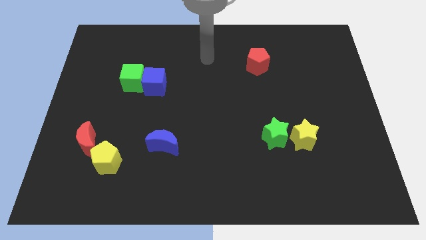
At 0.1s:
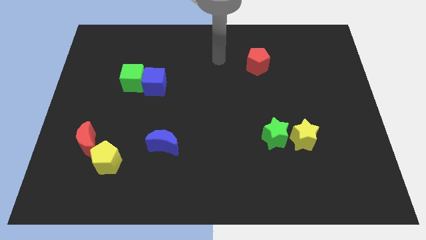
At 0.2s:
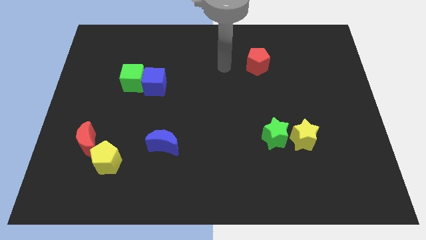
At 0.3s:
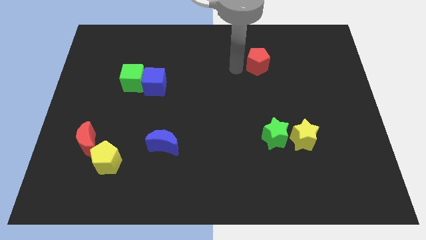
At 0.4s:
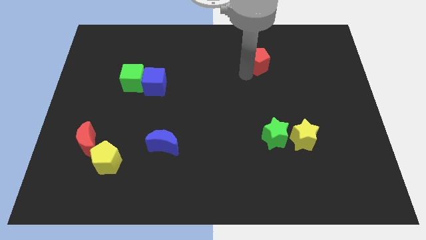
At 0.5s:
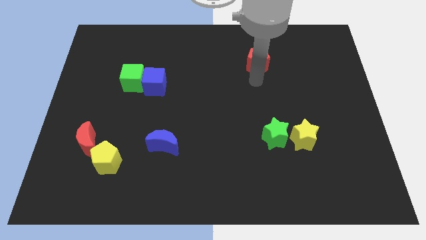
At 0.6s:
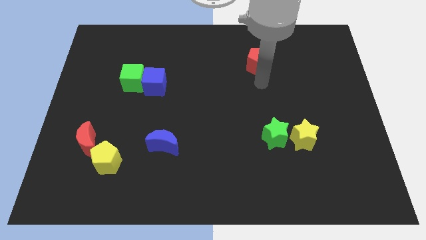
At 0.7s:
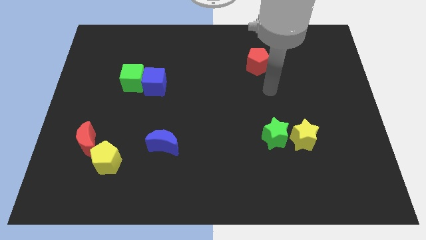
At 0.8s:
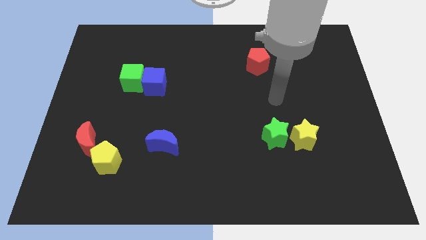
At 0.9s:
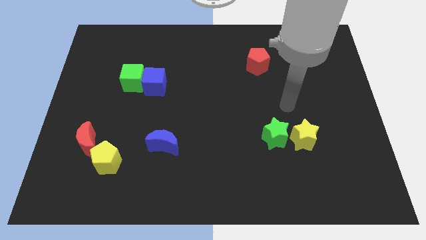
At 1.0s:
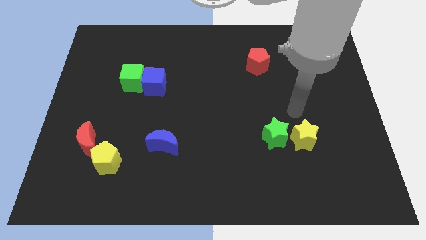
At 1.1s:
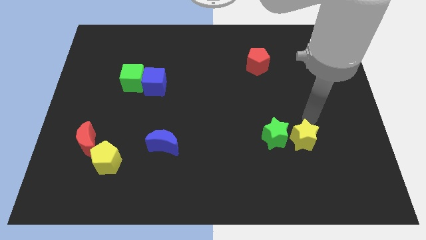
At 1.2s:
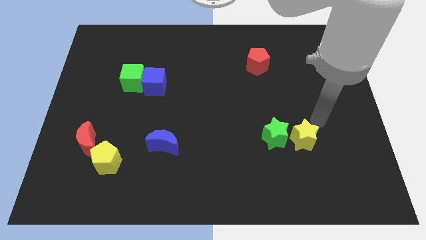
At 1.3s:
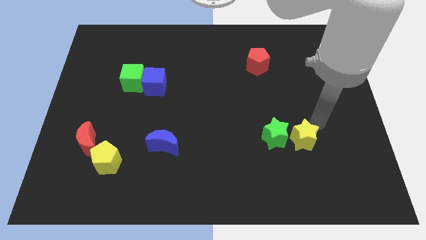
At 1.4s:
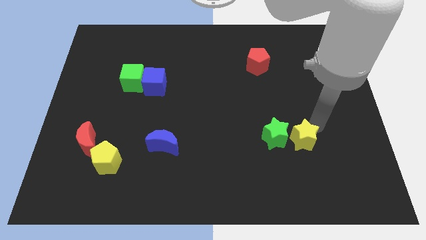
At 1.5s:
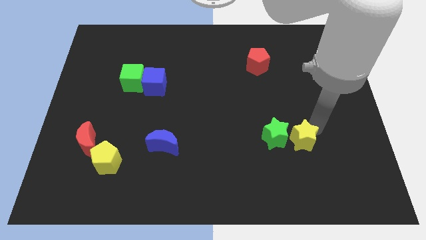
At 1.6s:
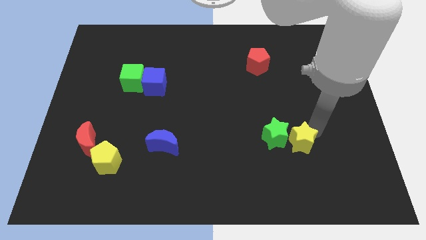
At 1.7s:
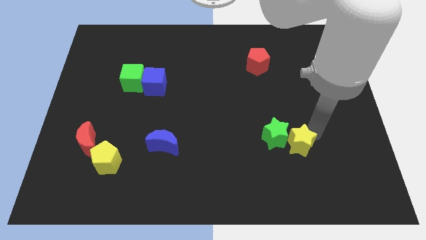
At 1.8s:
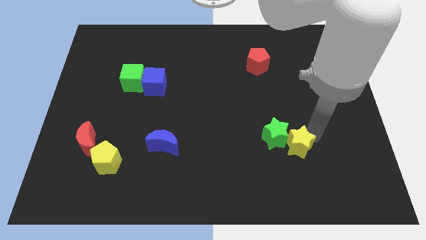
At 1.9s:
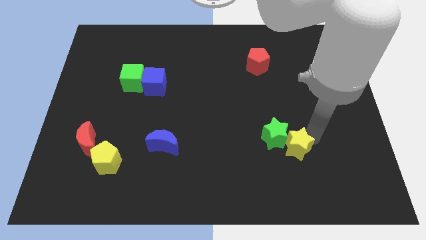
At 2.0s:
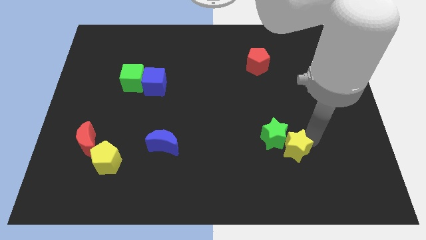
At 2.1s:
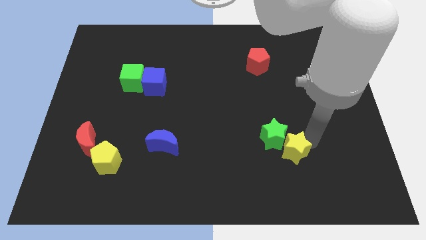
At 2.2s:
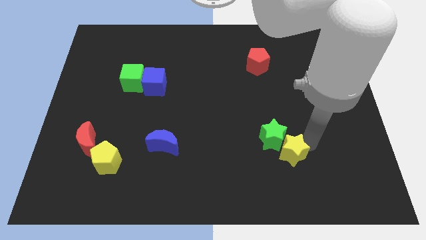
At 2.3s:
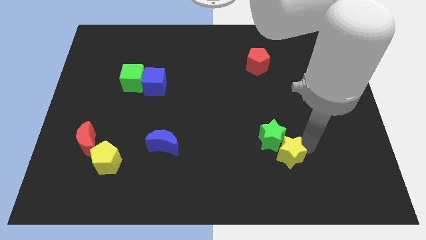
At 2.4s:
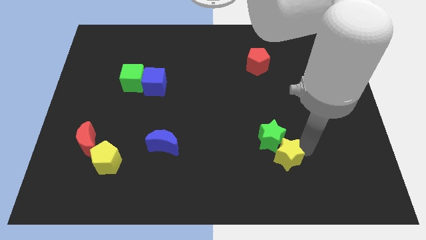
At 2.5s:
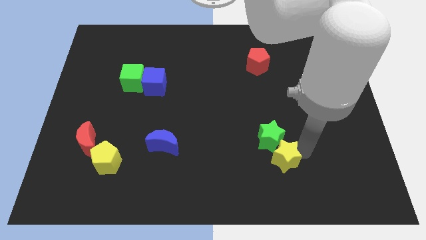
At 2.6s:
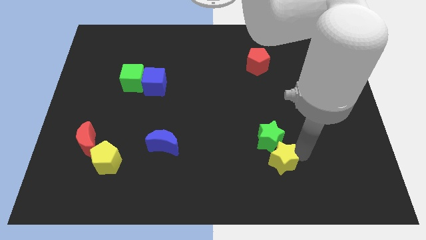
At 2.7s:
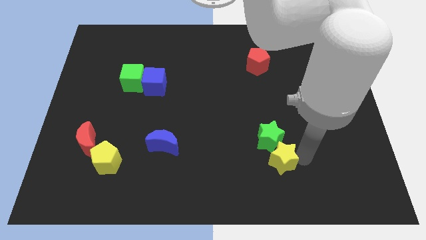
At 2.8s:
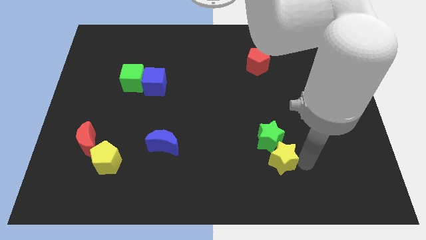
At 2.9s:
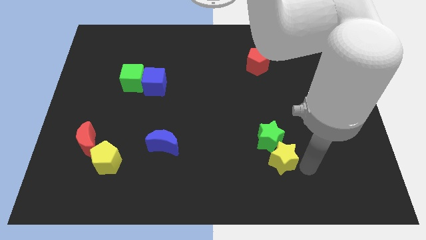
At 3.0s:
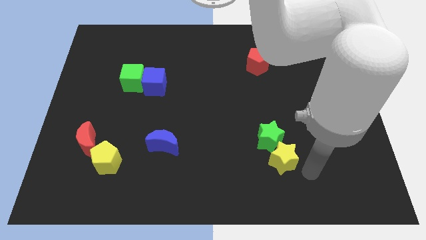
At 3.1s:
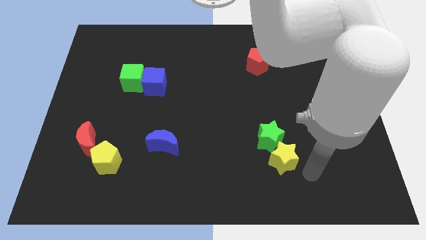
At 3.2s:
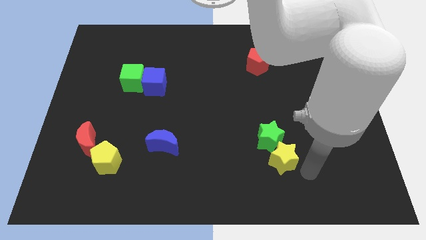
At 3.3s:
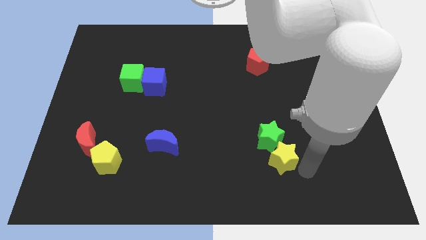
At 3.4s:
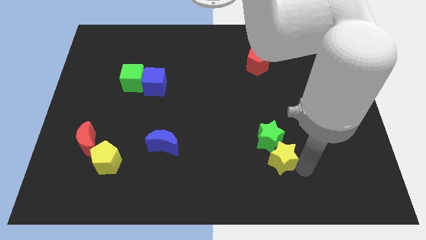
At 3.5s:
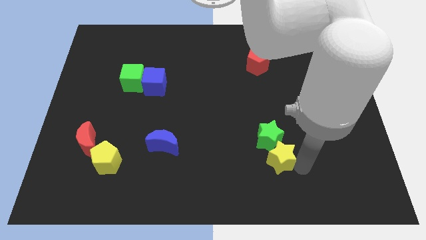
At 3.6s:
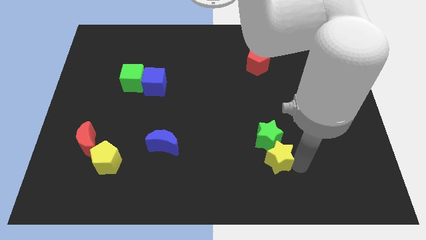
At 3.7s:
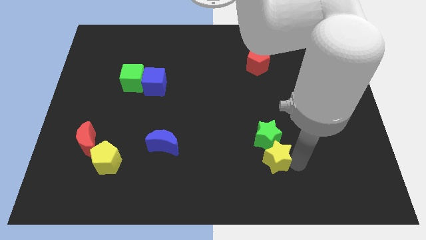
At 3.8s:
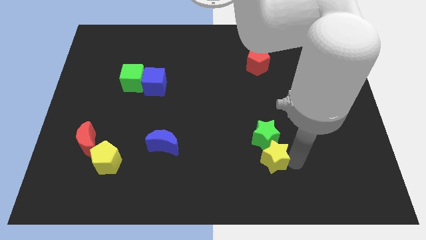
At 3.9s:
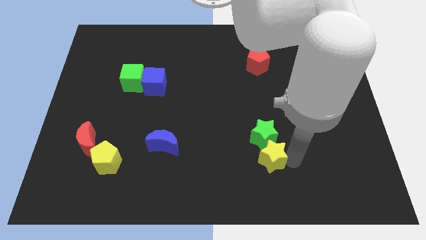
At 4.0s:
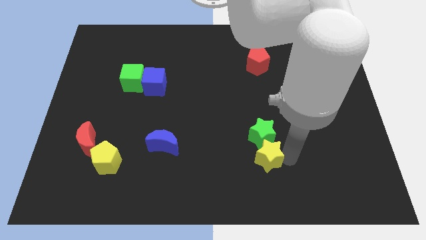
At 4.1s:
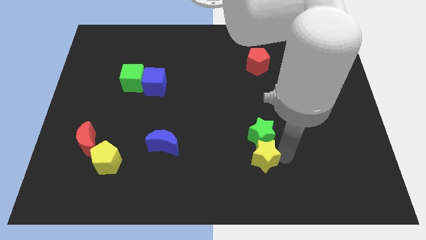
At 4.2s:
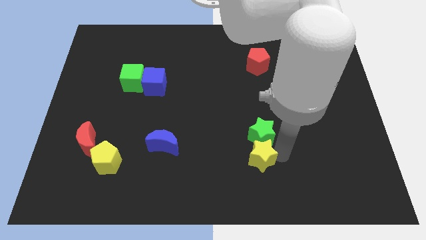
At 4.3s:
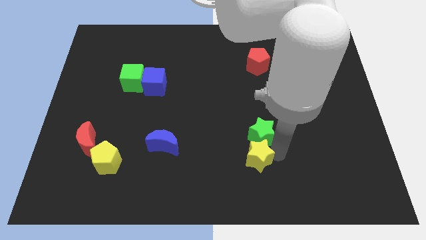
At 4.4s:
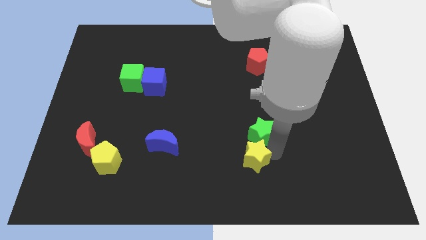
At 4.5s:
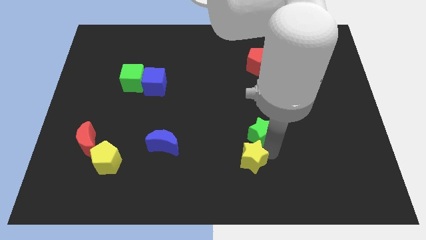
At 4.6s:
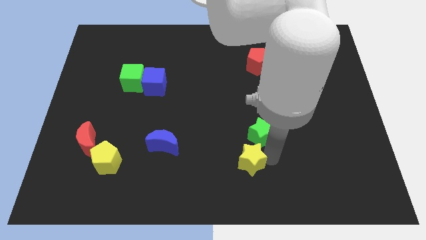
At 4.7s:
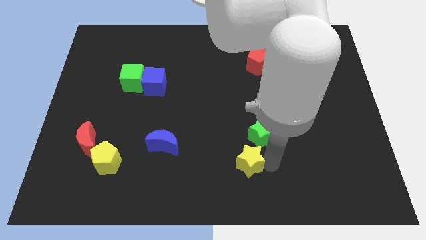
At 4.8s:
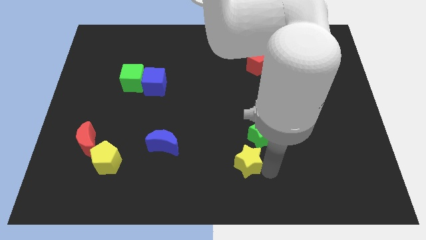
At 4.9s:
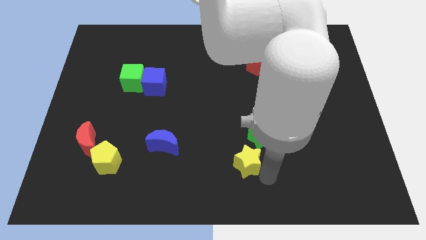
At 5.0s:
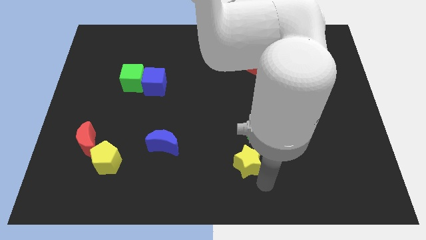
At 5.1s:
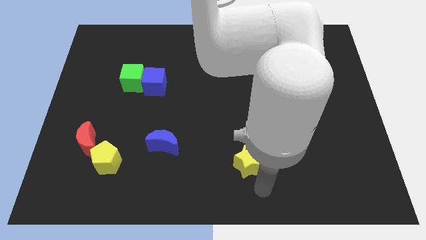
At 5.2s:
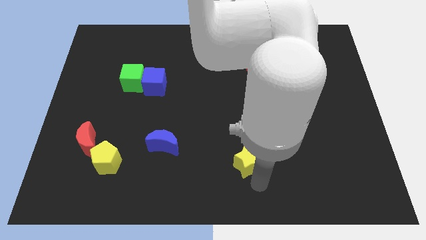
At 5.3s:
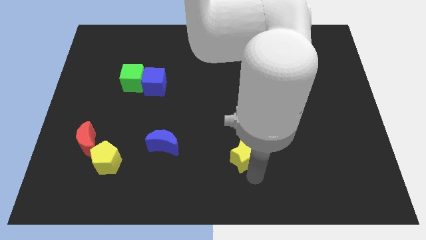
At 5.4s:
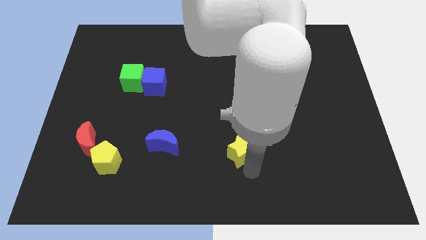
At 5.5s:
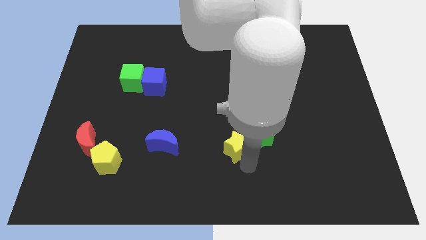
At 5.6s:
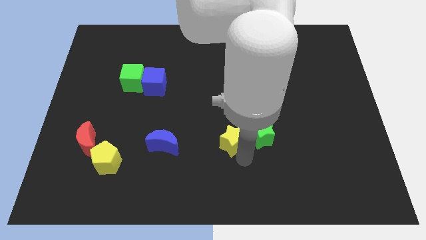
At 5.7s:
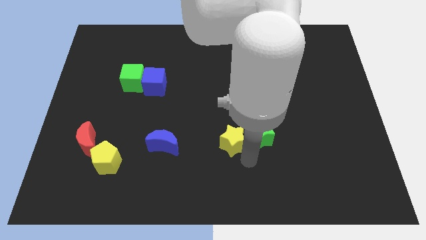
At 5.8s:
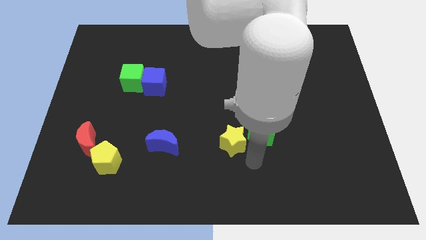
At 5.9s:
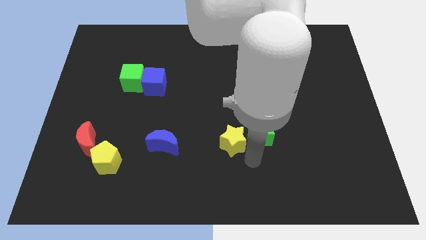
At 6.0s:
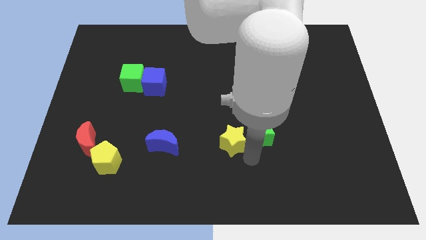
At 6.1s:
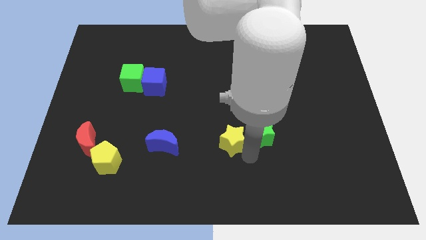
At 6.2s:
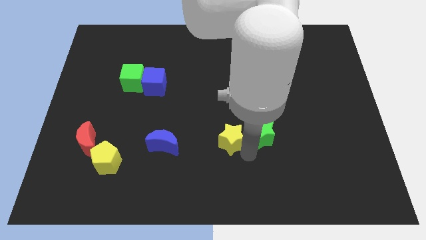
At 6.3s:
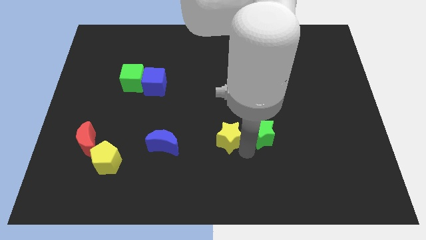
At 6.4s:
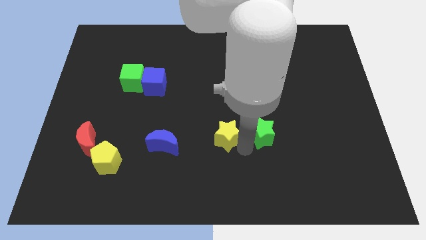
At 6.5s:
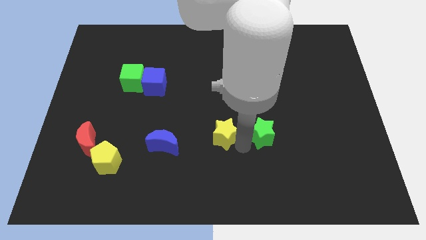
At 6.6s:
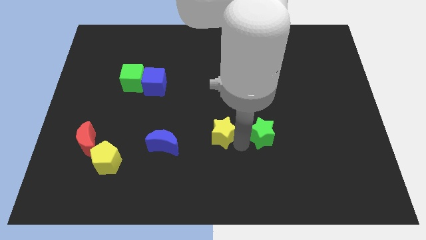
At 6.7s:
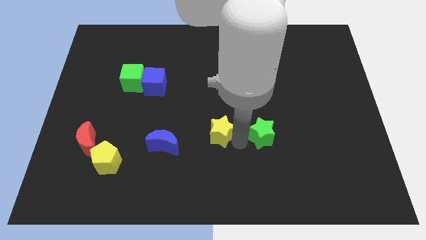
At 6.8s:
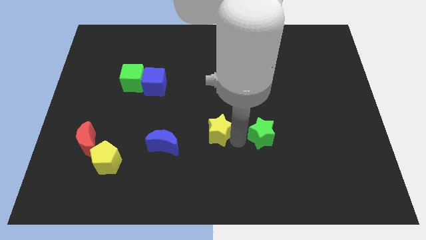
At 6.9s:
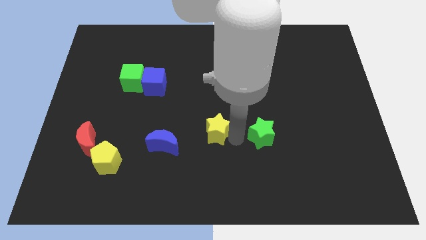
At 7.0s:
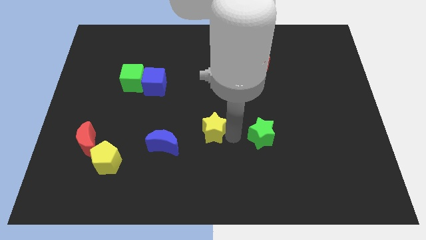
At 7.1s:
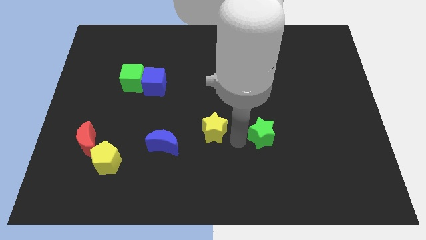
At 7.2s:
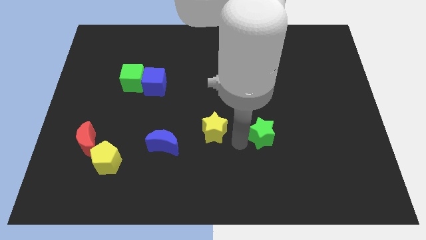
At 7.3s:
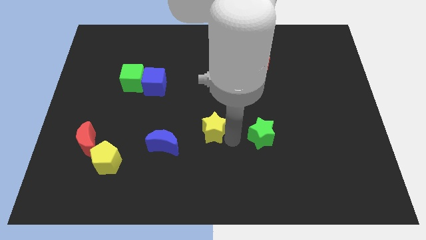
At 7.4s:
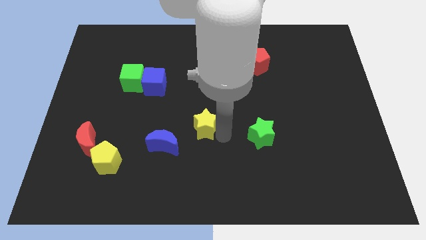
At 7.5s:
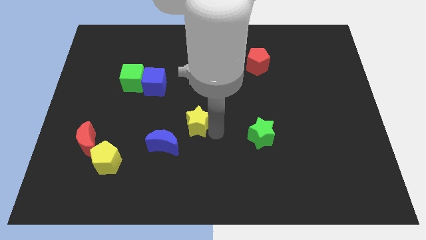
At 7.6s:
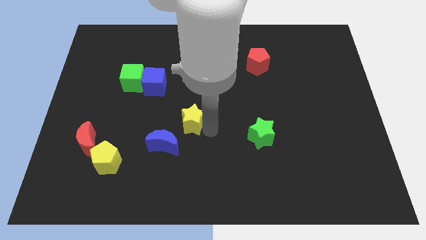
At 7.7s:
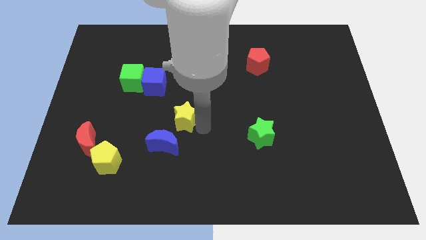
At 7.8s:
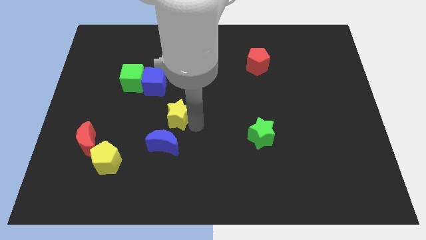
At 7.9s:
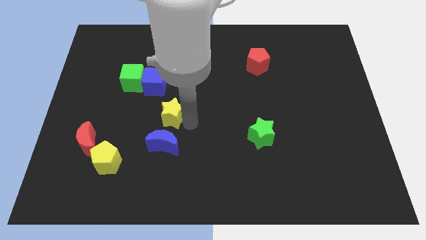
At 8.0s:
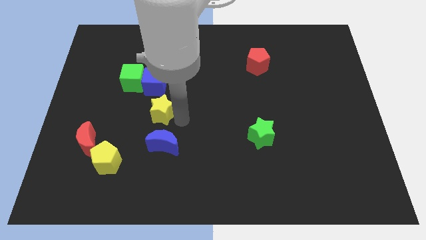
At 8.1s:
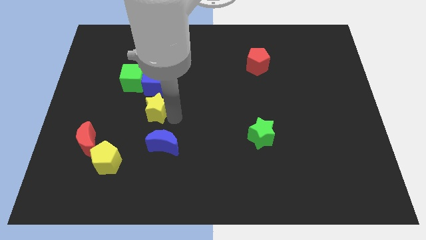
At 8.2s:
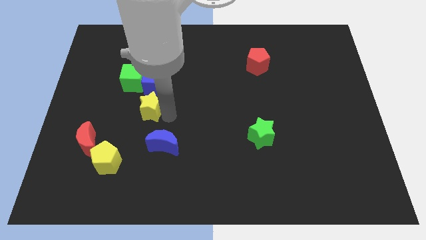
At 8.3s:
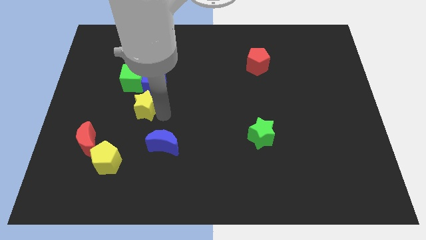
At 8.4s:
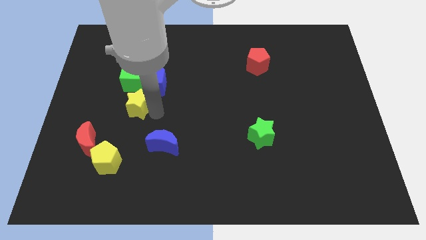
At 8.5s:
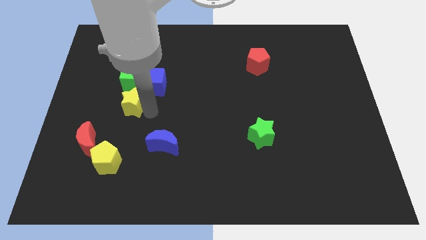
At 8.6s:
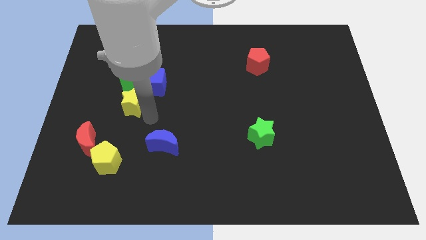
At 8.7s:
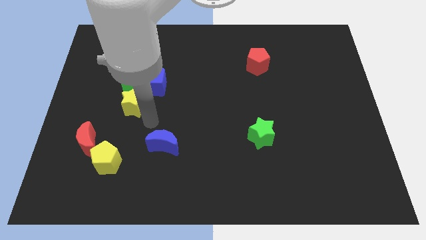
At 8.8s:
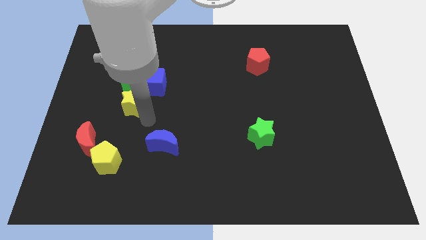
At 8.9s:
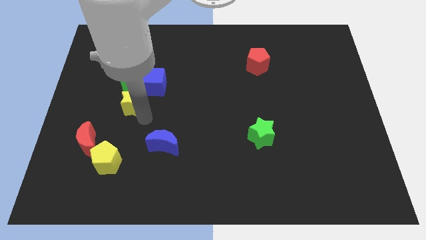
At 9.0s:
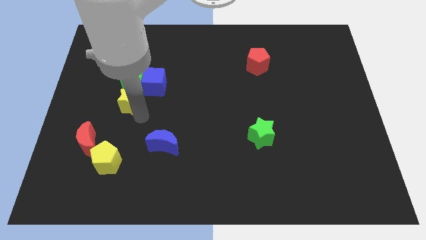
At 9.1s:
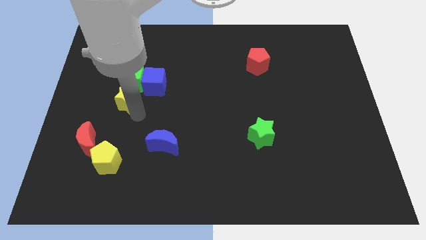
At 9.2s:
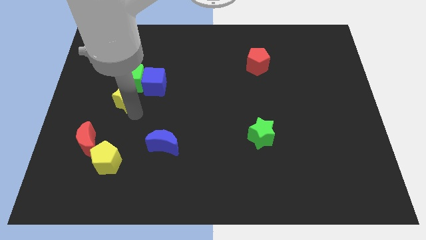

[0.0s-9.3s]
put the yellow star to the left side of the blue cube
